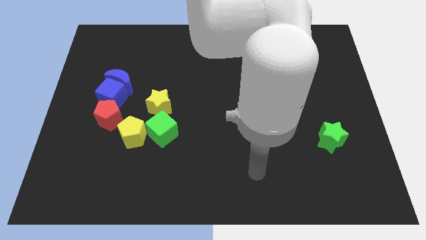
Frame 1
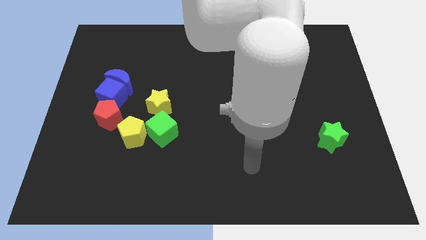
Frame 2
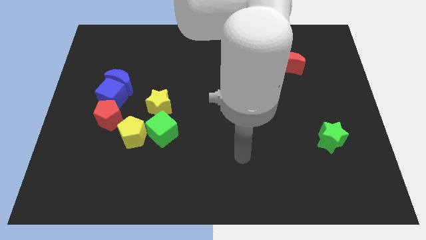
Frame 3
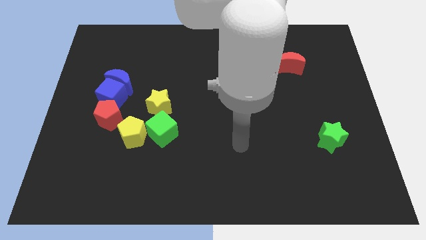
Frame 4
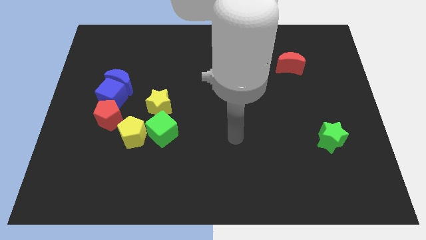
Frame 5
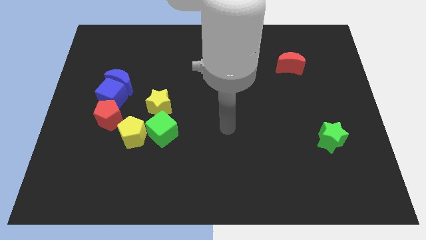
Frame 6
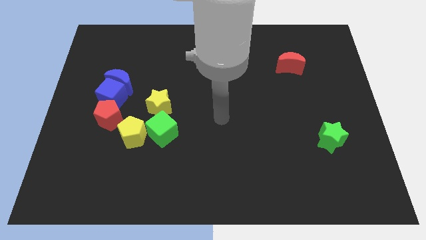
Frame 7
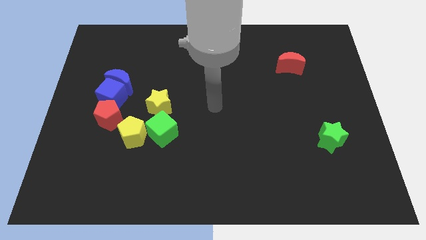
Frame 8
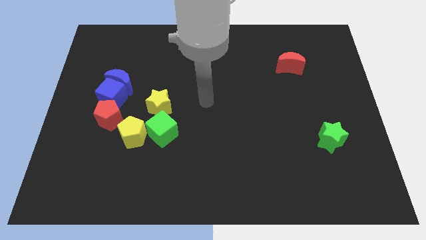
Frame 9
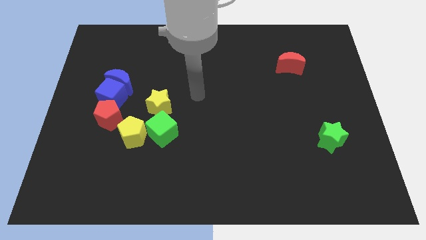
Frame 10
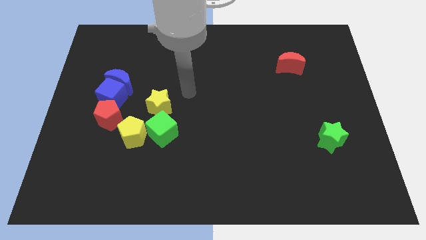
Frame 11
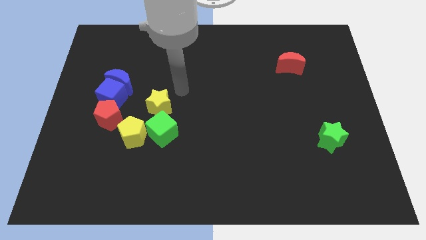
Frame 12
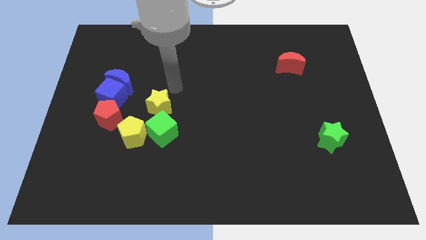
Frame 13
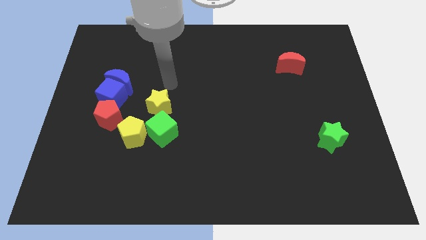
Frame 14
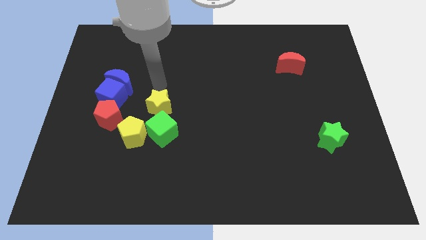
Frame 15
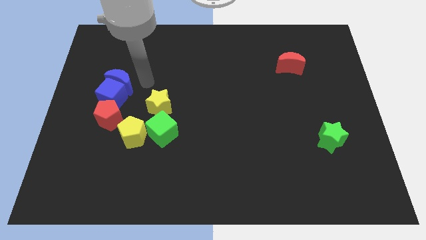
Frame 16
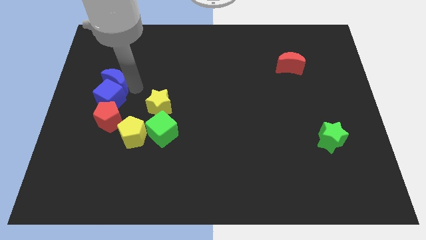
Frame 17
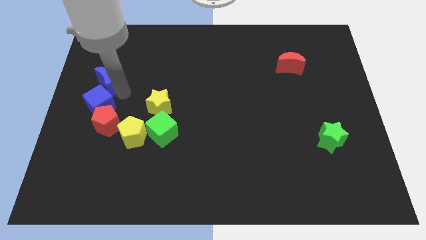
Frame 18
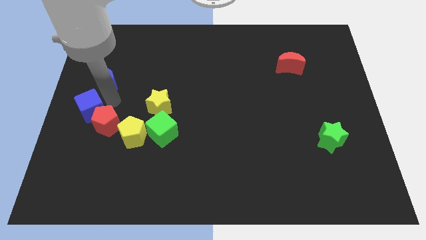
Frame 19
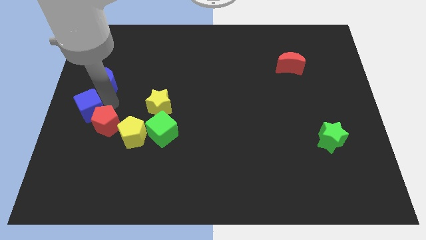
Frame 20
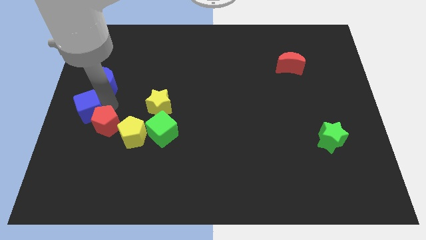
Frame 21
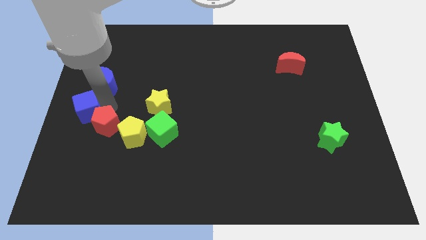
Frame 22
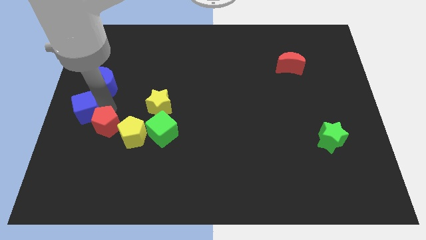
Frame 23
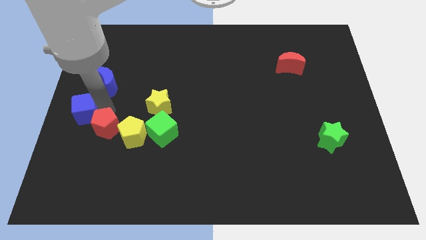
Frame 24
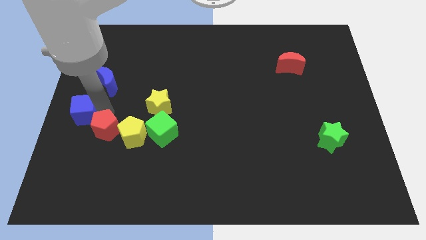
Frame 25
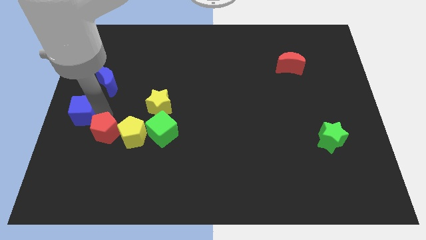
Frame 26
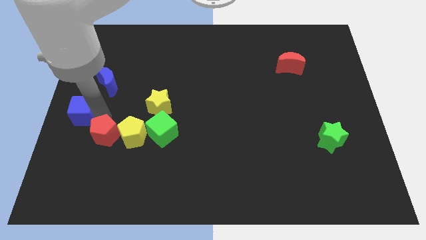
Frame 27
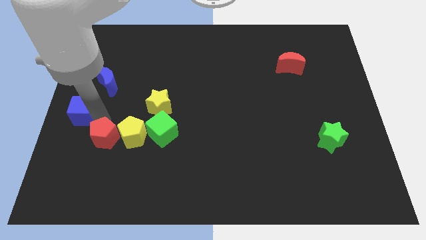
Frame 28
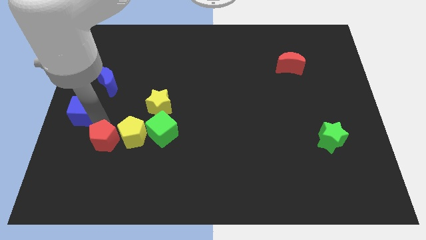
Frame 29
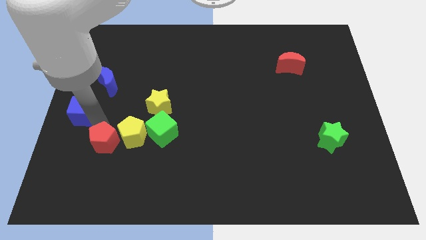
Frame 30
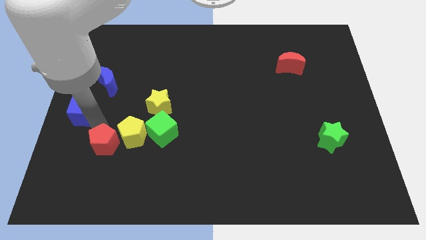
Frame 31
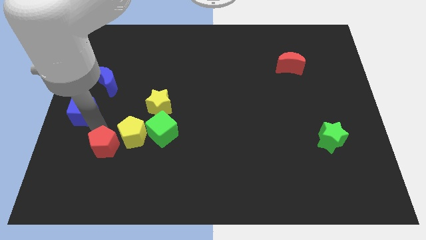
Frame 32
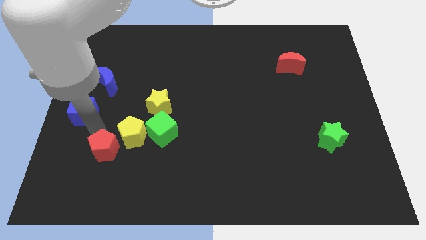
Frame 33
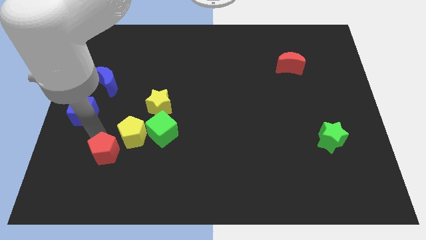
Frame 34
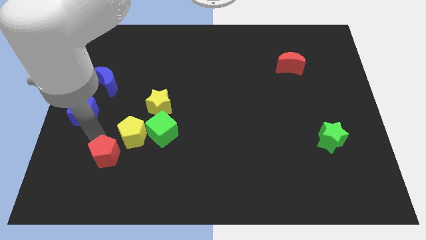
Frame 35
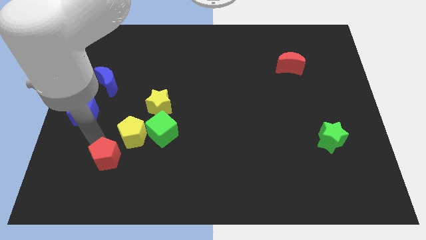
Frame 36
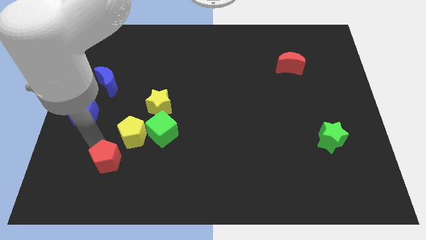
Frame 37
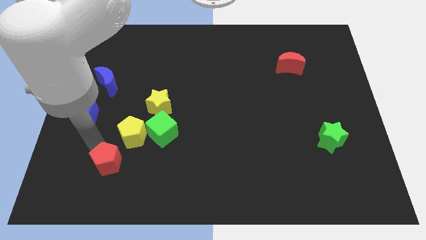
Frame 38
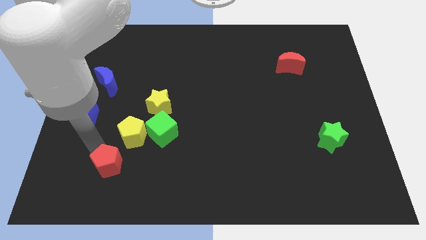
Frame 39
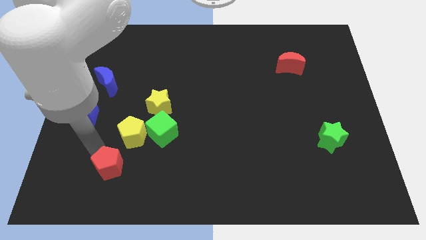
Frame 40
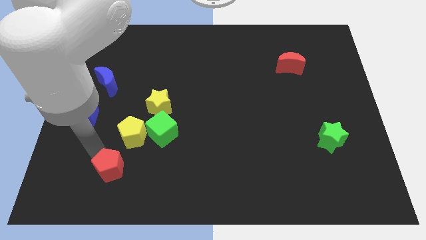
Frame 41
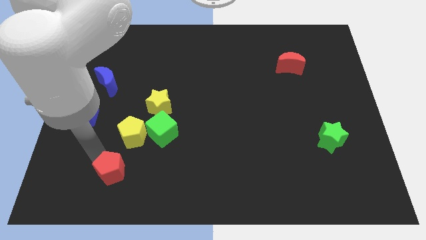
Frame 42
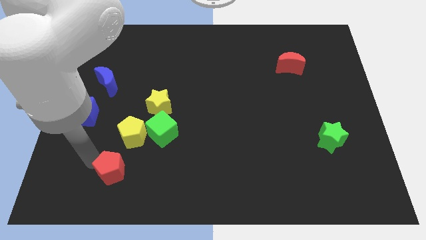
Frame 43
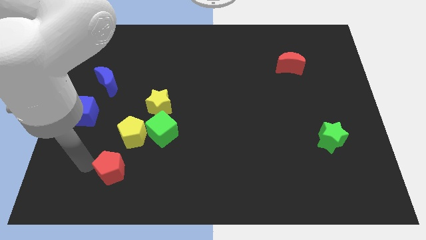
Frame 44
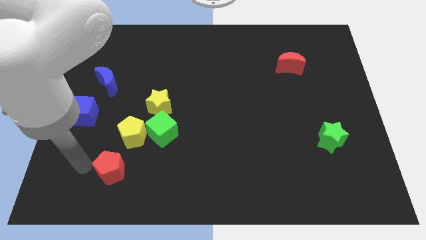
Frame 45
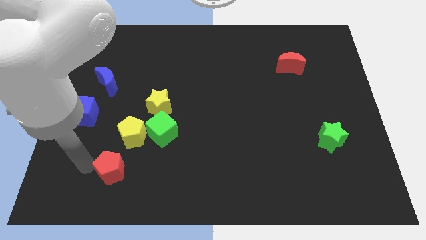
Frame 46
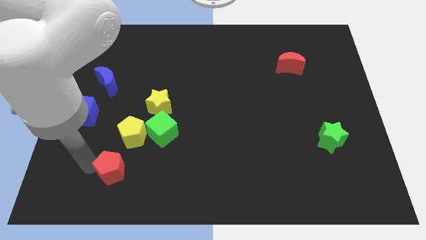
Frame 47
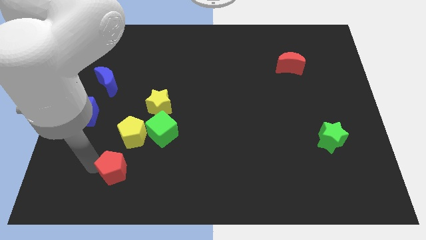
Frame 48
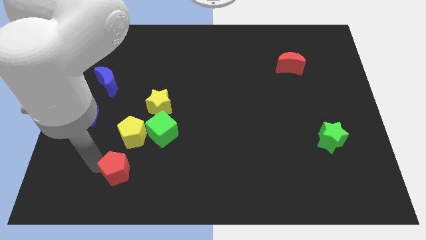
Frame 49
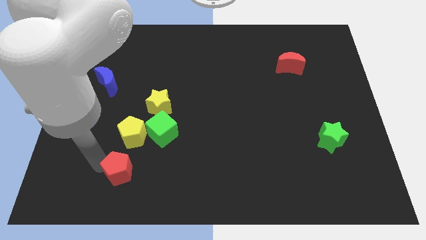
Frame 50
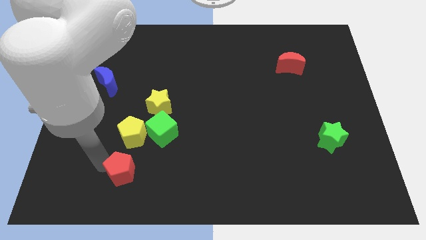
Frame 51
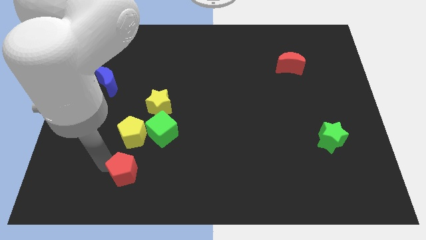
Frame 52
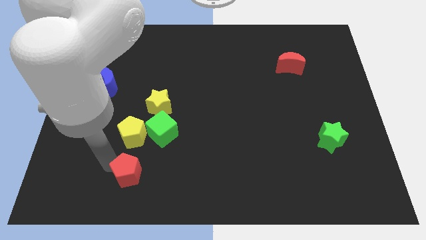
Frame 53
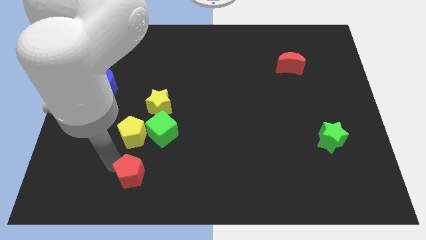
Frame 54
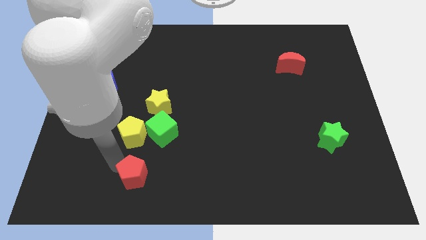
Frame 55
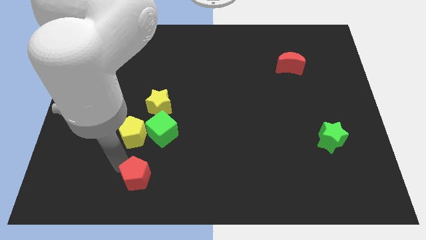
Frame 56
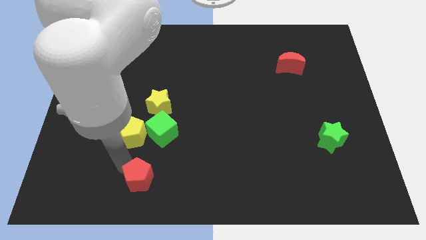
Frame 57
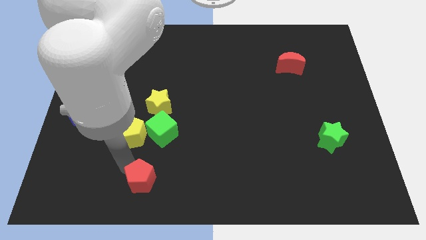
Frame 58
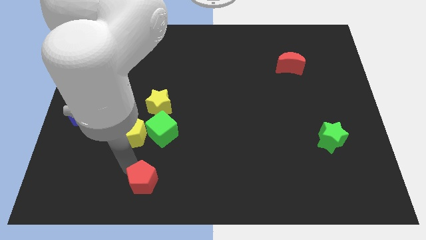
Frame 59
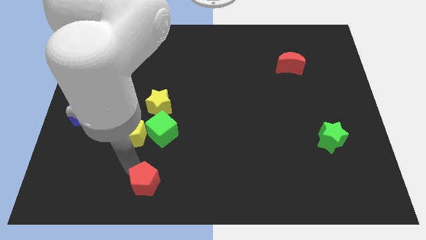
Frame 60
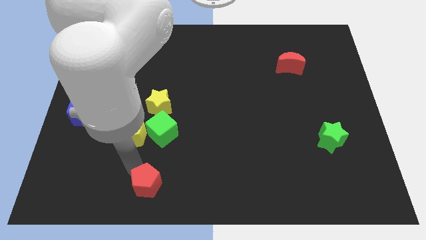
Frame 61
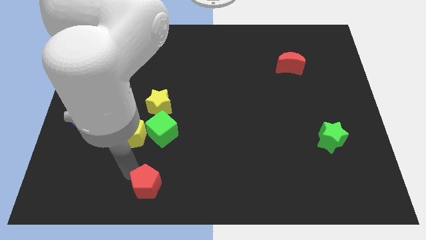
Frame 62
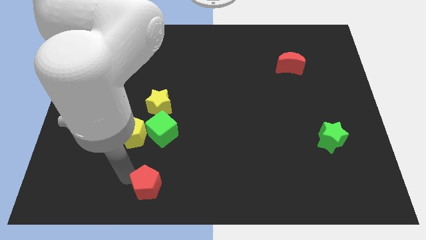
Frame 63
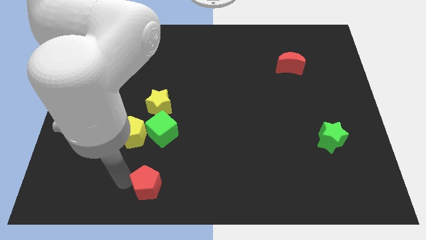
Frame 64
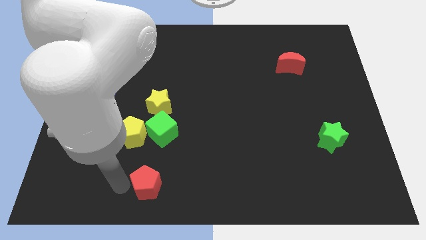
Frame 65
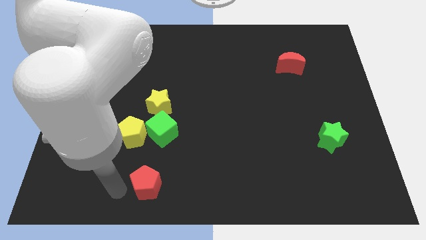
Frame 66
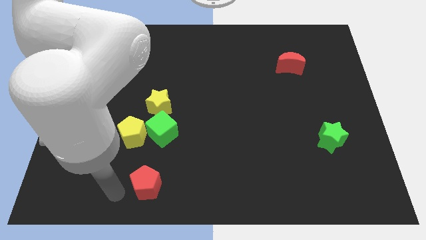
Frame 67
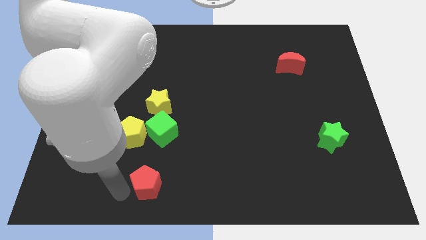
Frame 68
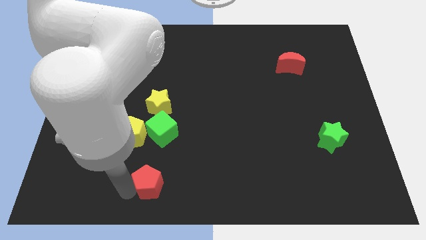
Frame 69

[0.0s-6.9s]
put the red pentagon to the bottom side

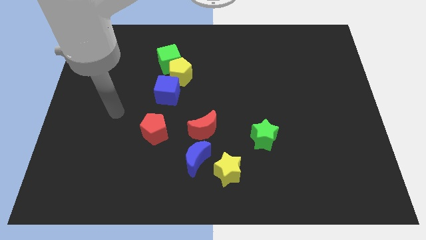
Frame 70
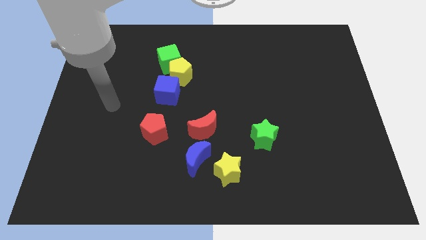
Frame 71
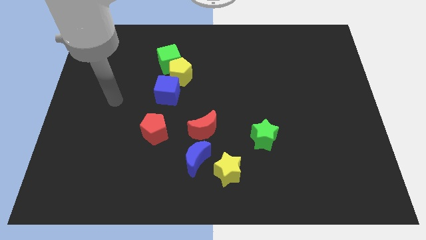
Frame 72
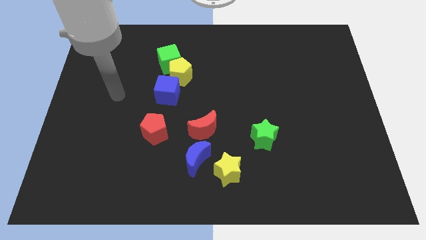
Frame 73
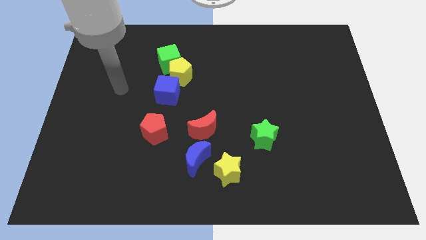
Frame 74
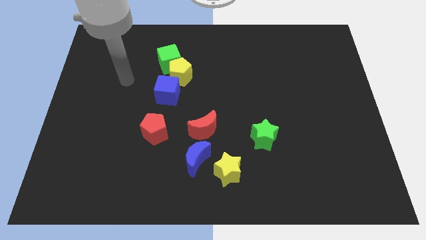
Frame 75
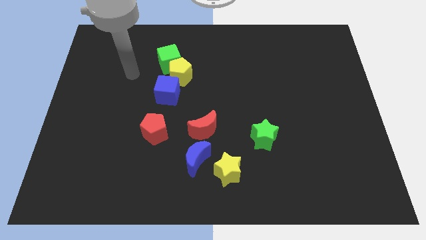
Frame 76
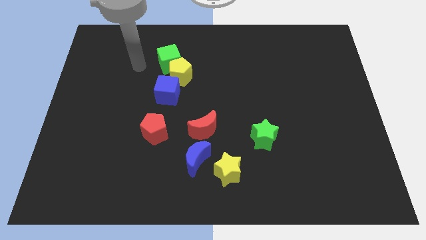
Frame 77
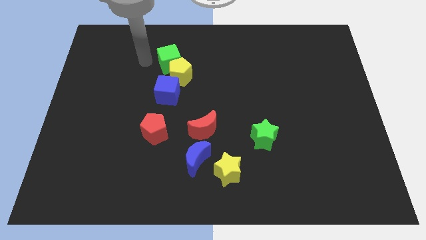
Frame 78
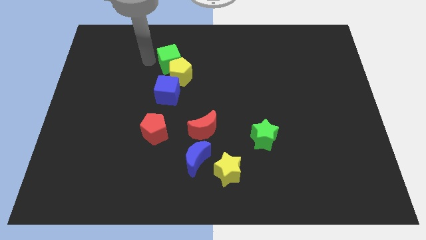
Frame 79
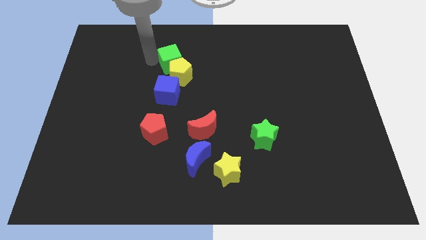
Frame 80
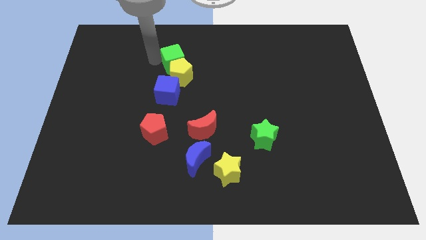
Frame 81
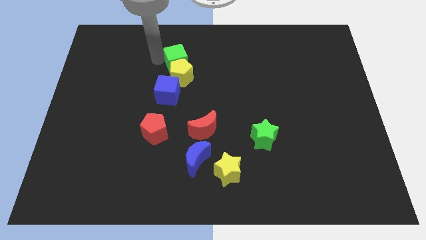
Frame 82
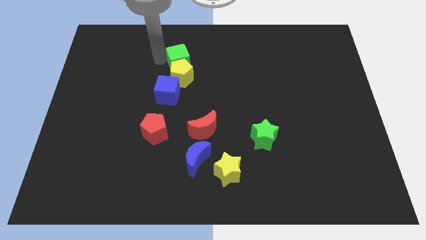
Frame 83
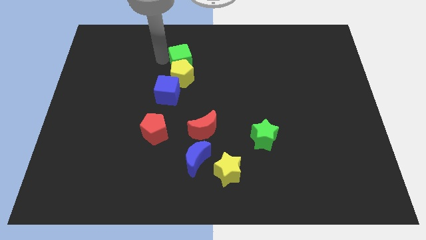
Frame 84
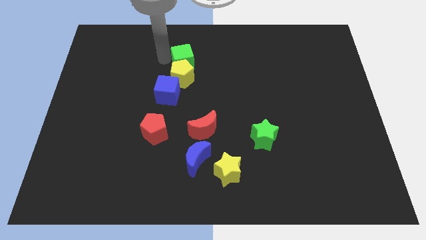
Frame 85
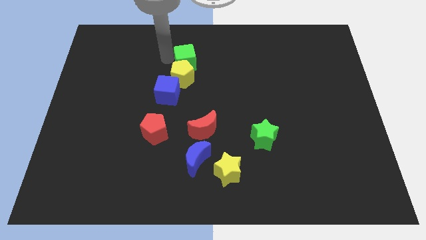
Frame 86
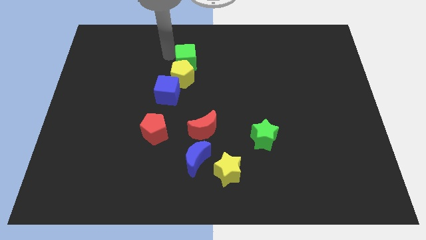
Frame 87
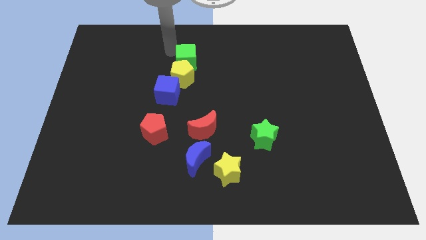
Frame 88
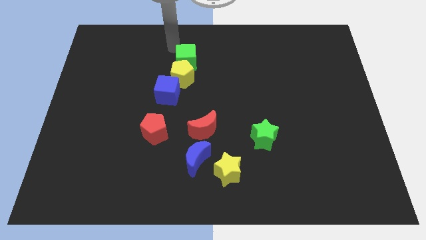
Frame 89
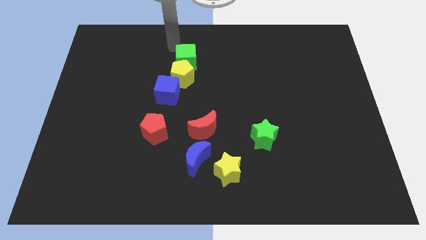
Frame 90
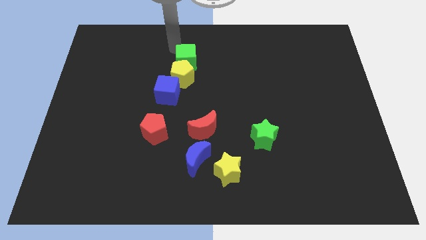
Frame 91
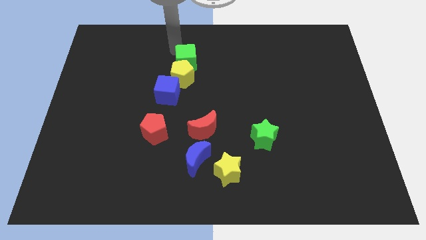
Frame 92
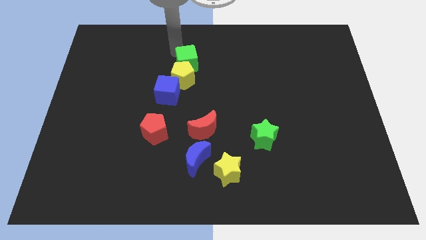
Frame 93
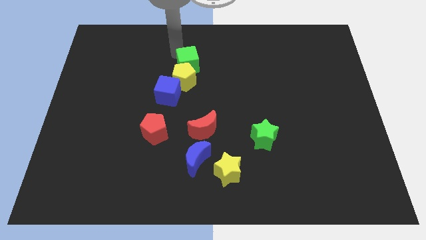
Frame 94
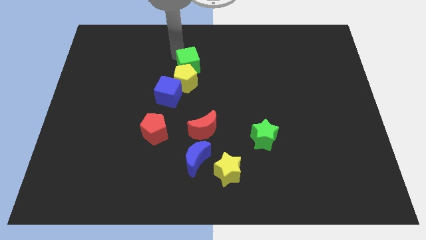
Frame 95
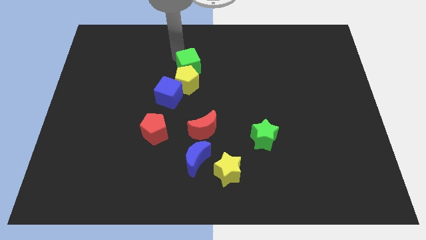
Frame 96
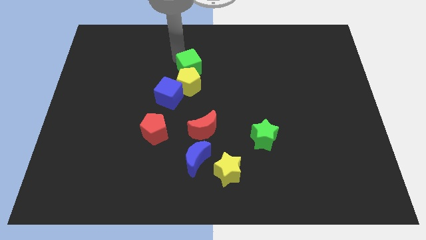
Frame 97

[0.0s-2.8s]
slide the green cube to the center
